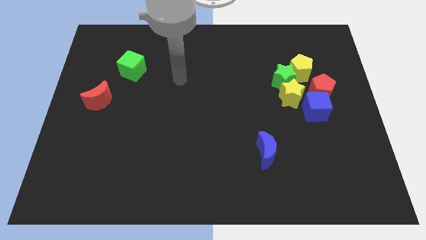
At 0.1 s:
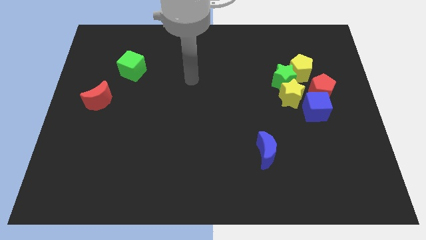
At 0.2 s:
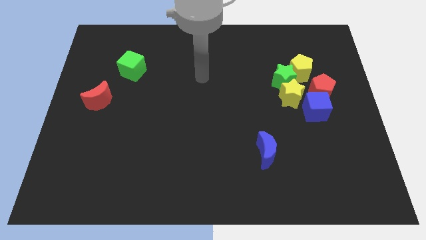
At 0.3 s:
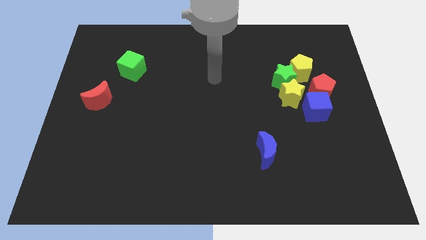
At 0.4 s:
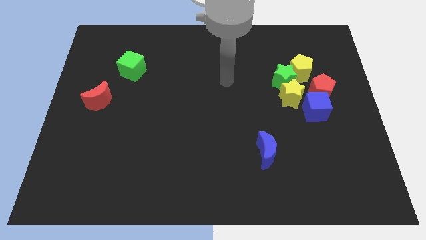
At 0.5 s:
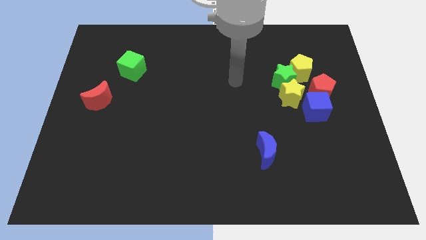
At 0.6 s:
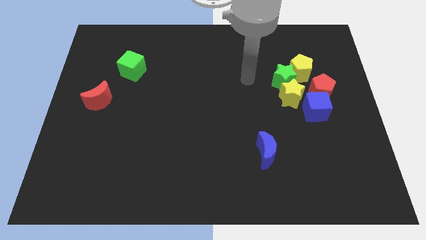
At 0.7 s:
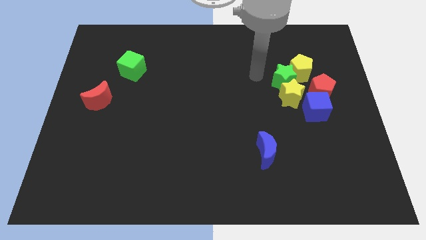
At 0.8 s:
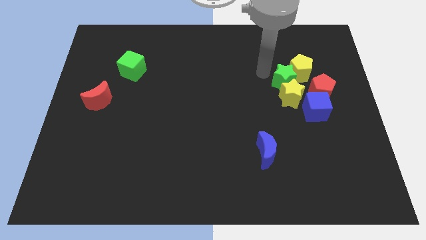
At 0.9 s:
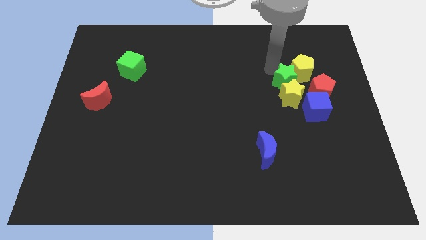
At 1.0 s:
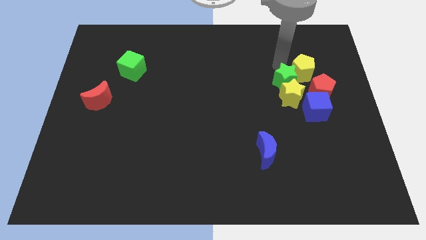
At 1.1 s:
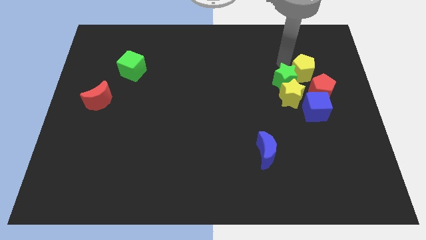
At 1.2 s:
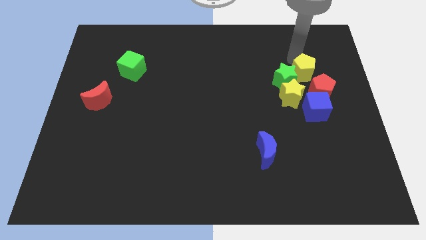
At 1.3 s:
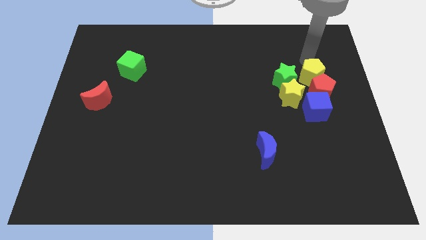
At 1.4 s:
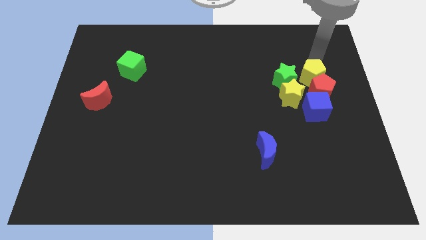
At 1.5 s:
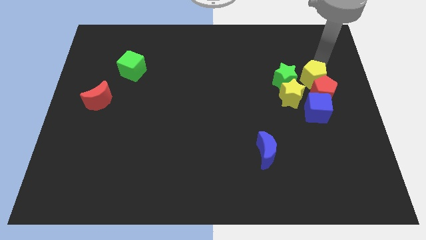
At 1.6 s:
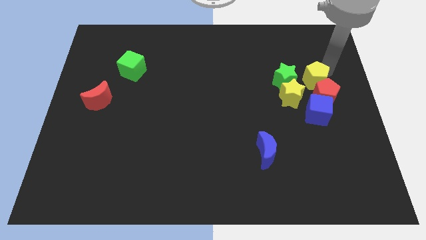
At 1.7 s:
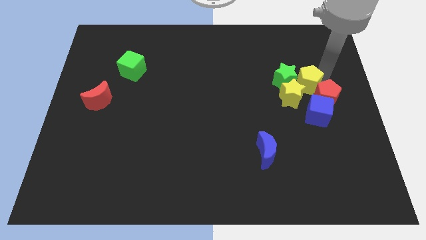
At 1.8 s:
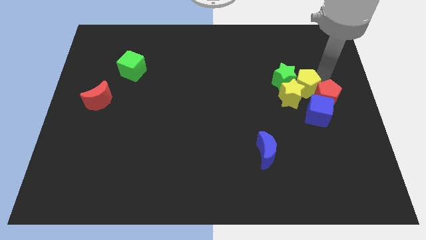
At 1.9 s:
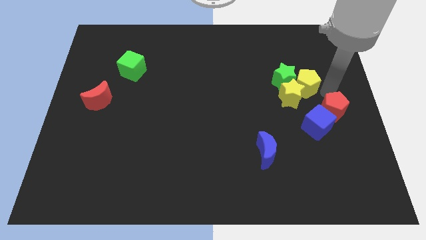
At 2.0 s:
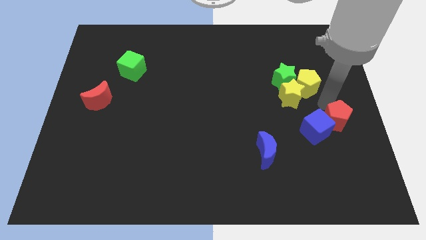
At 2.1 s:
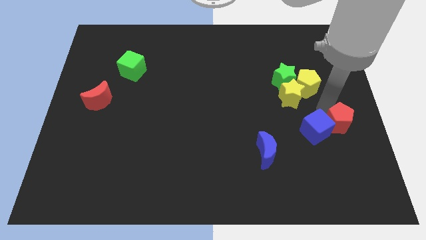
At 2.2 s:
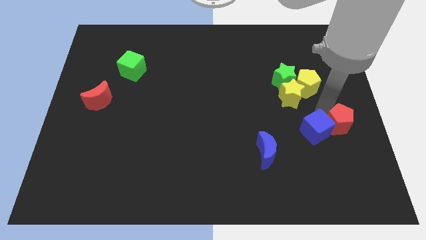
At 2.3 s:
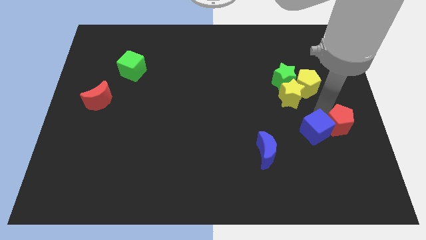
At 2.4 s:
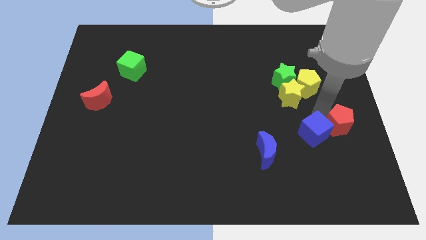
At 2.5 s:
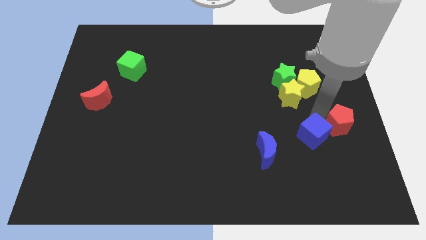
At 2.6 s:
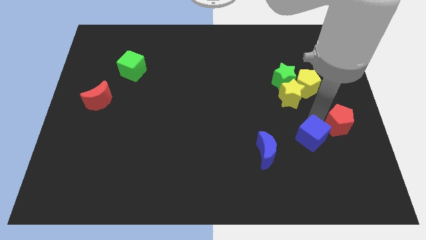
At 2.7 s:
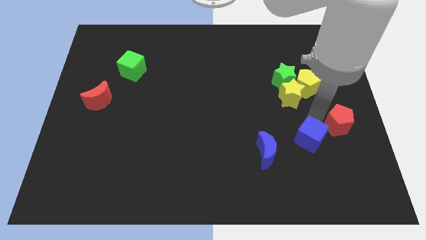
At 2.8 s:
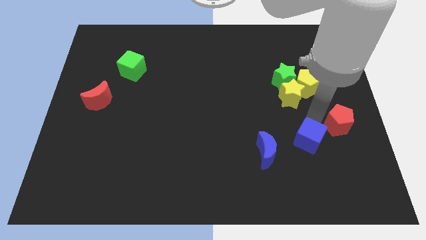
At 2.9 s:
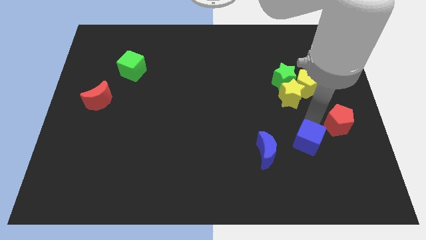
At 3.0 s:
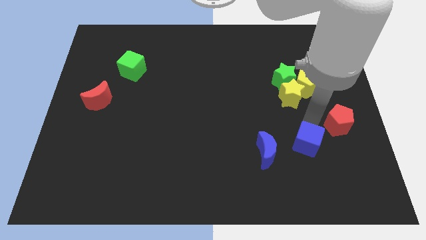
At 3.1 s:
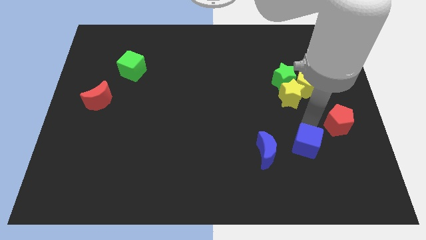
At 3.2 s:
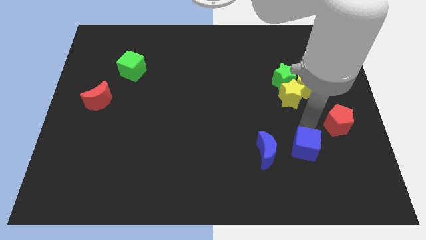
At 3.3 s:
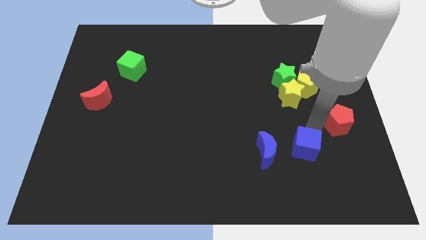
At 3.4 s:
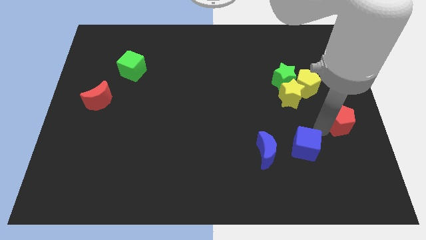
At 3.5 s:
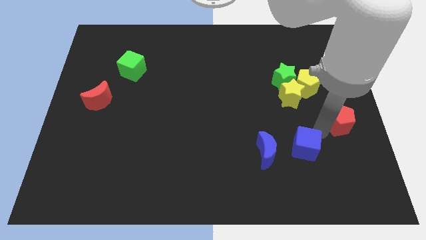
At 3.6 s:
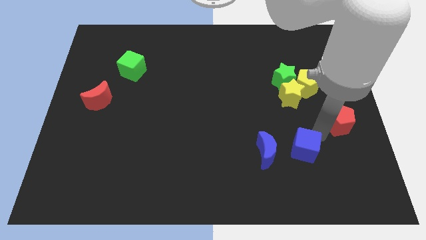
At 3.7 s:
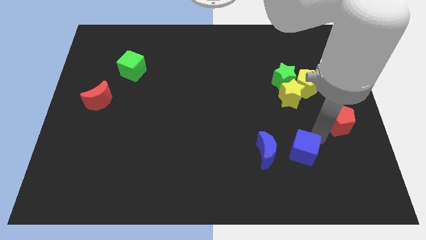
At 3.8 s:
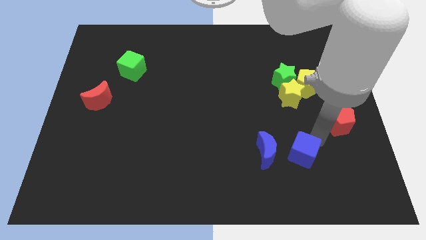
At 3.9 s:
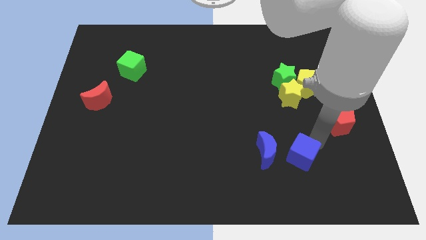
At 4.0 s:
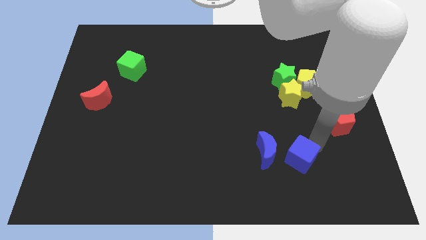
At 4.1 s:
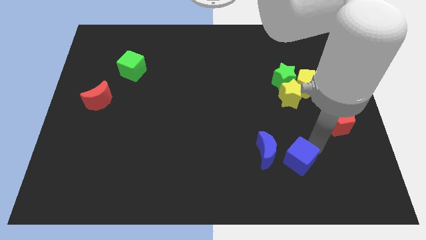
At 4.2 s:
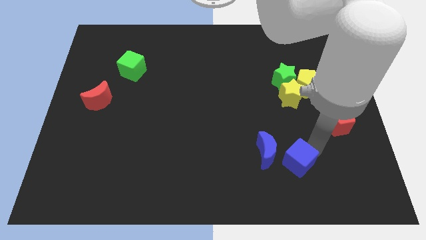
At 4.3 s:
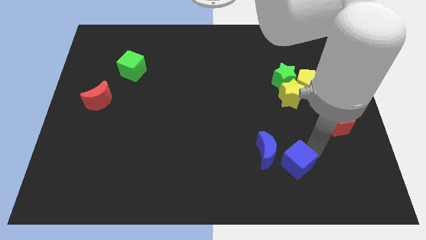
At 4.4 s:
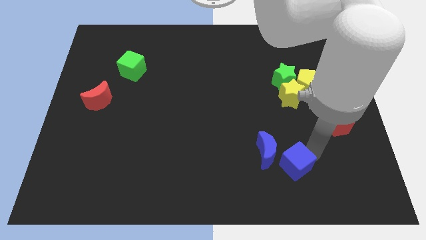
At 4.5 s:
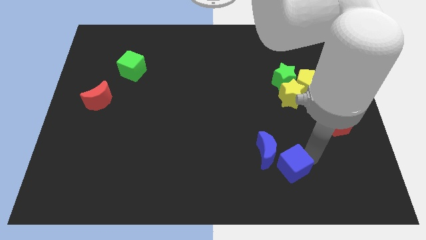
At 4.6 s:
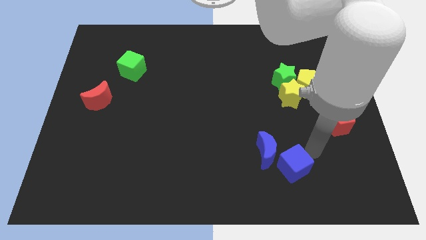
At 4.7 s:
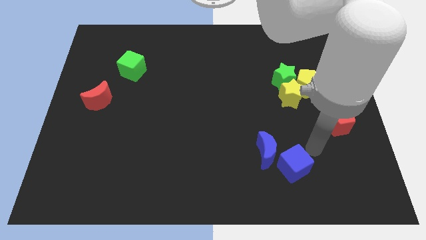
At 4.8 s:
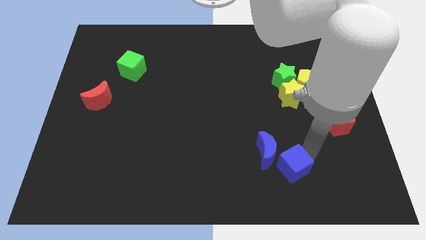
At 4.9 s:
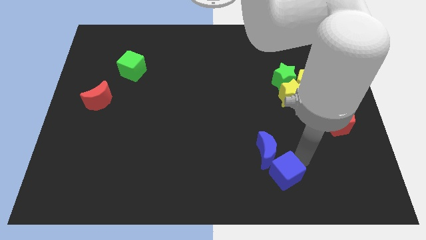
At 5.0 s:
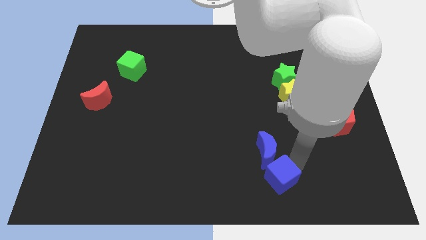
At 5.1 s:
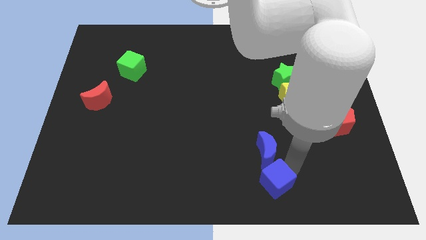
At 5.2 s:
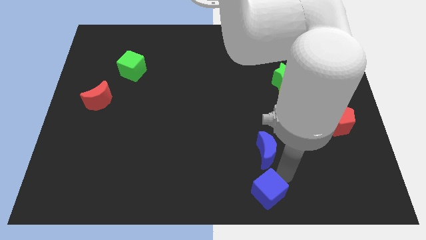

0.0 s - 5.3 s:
move the blue cube to the bottom

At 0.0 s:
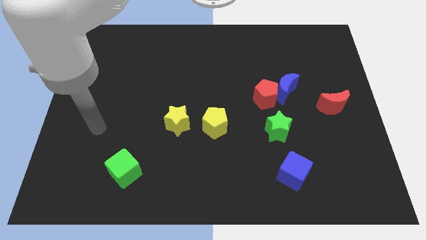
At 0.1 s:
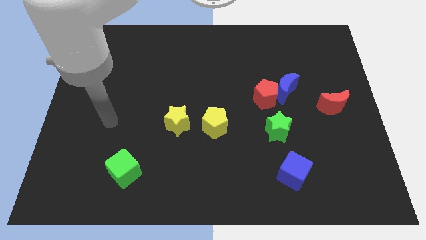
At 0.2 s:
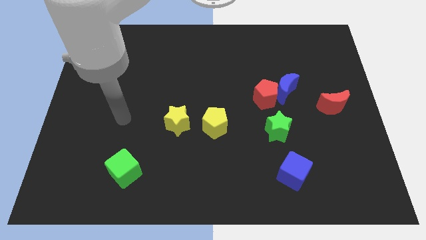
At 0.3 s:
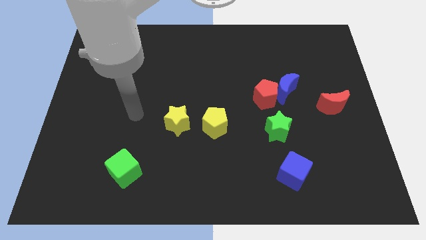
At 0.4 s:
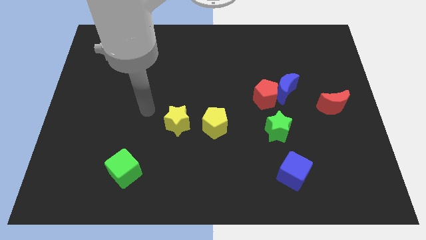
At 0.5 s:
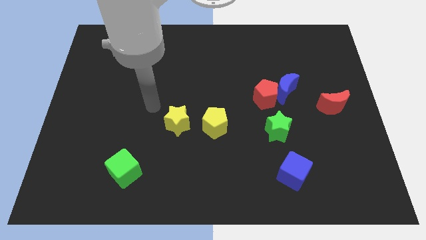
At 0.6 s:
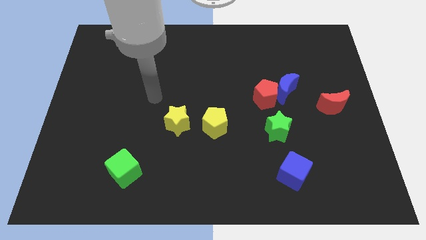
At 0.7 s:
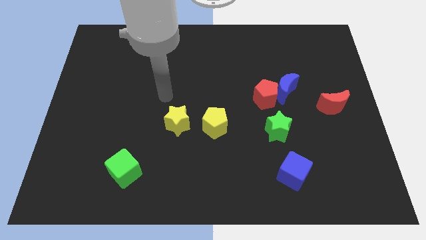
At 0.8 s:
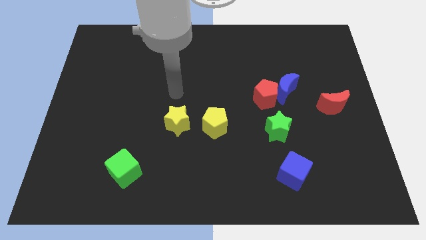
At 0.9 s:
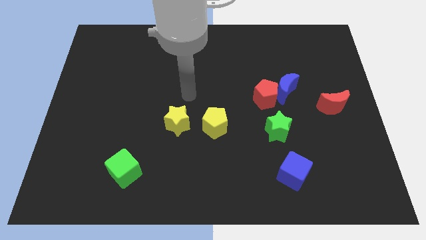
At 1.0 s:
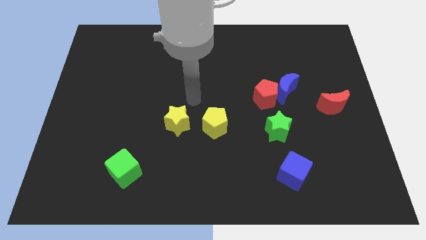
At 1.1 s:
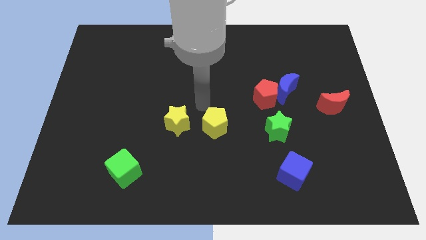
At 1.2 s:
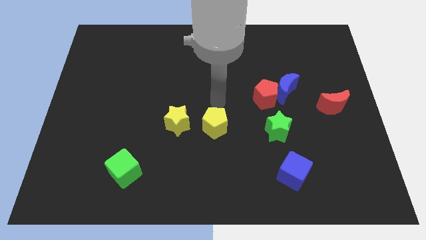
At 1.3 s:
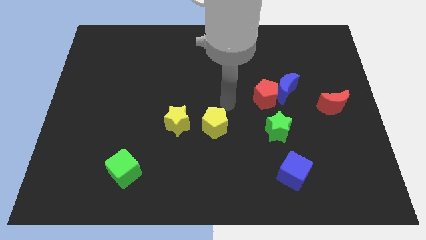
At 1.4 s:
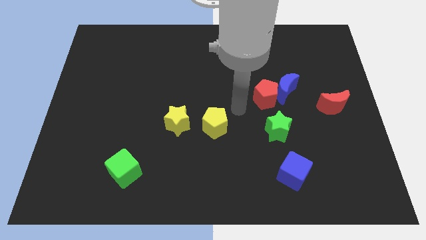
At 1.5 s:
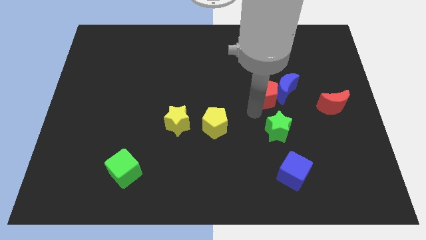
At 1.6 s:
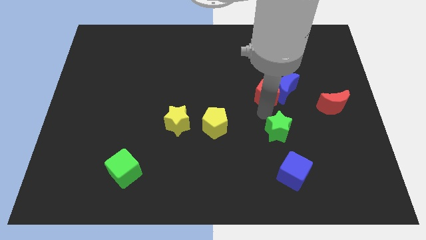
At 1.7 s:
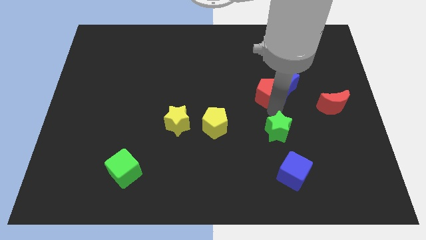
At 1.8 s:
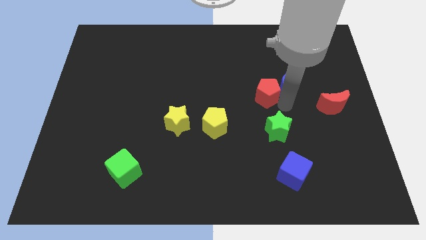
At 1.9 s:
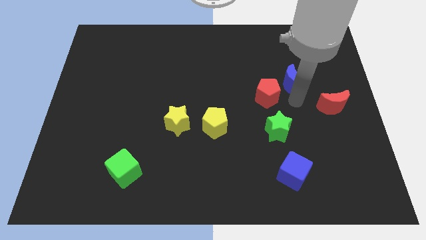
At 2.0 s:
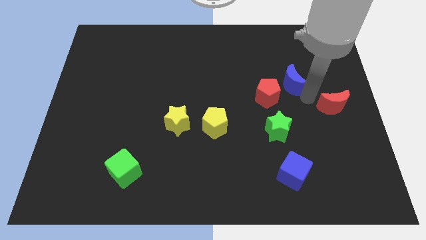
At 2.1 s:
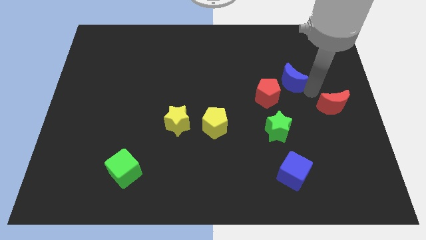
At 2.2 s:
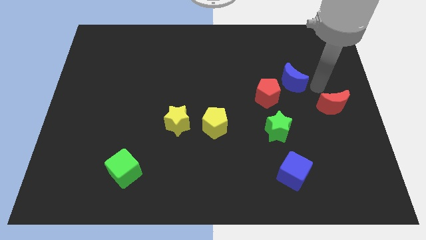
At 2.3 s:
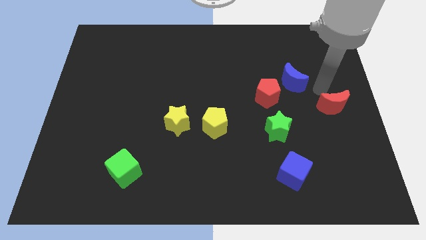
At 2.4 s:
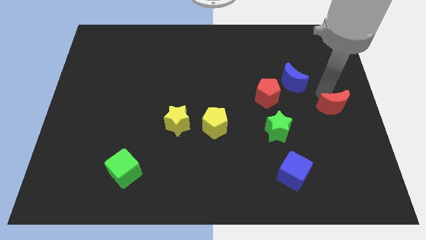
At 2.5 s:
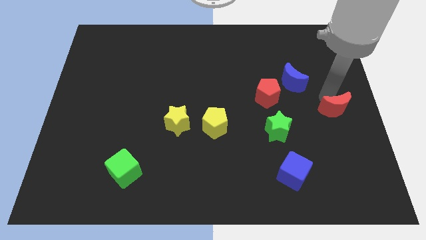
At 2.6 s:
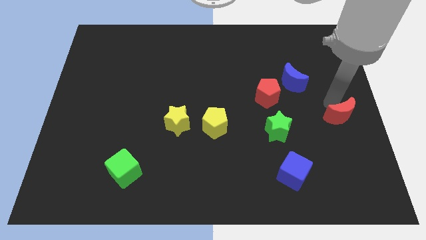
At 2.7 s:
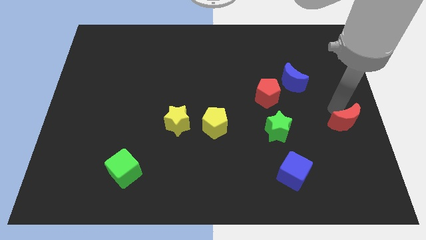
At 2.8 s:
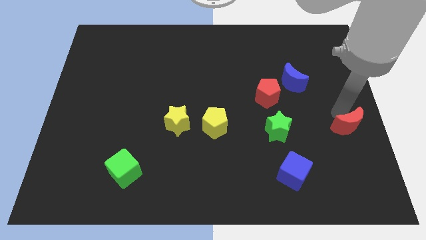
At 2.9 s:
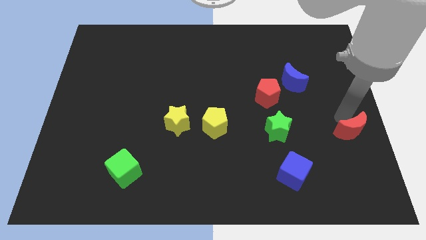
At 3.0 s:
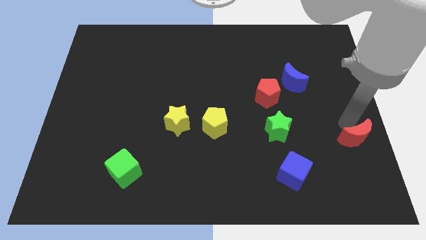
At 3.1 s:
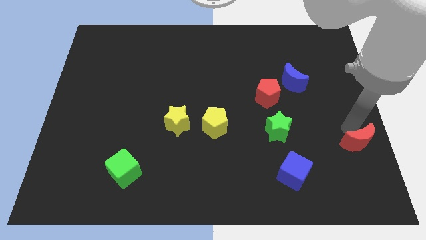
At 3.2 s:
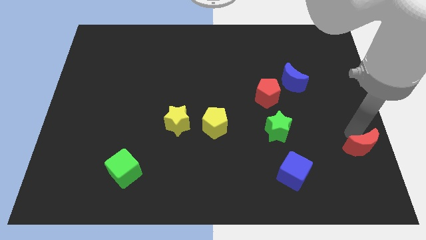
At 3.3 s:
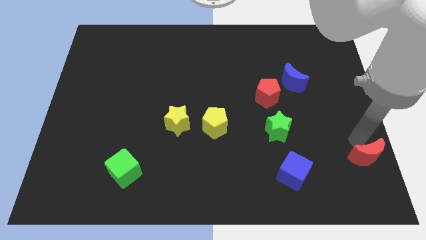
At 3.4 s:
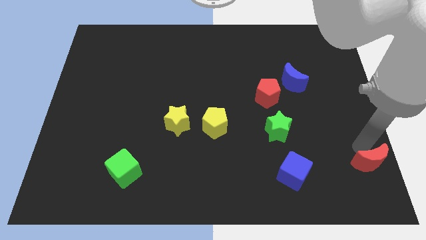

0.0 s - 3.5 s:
move the red moon to the bottom right of the board
